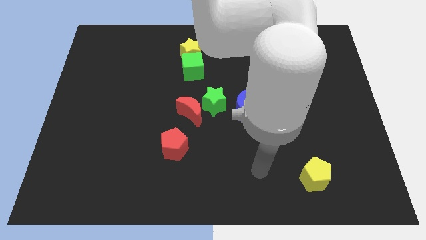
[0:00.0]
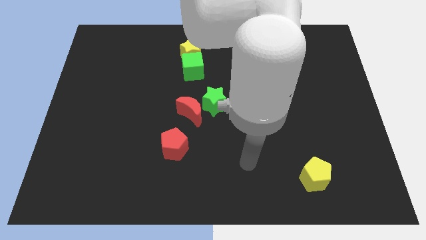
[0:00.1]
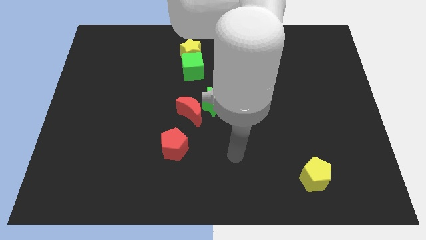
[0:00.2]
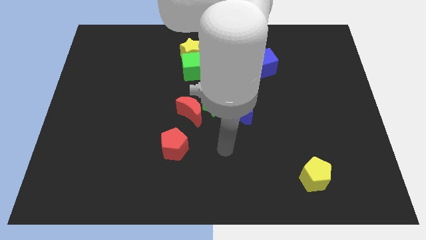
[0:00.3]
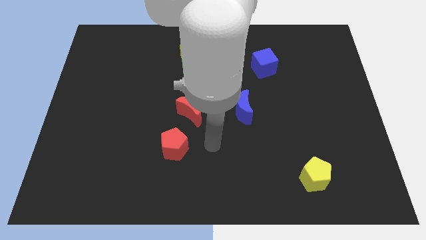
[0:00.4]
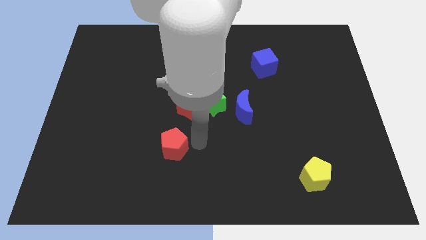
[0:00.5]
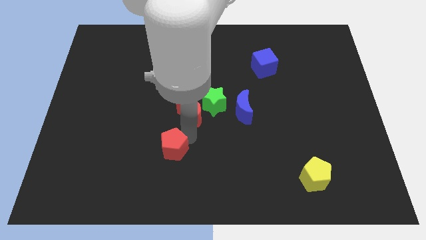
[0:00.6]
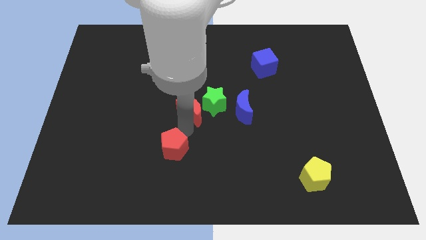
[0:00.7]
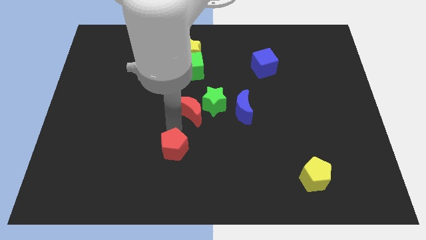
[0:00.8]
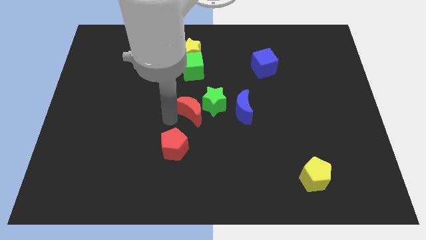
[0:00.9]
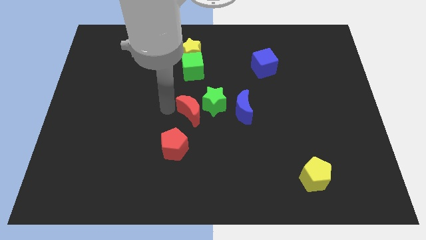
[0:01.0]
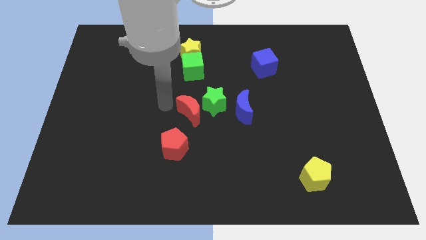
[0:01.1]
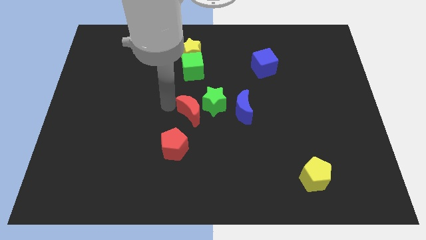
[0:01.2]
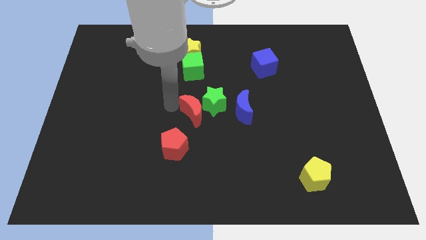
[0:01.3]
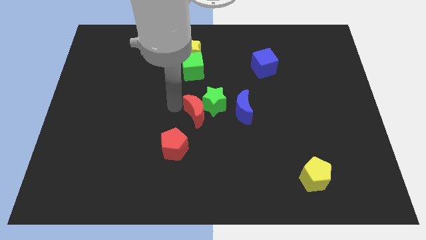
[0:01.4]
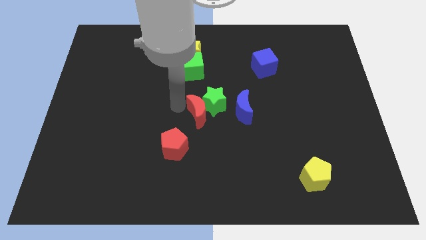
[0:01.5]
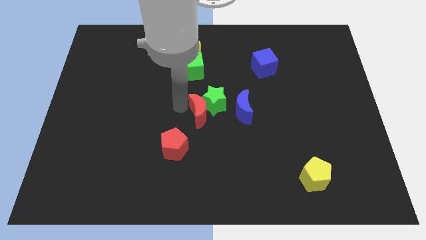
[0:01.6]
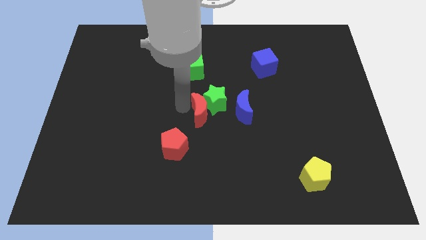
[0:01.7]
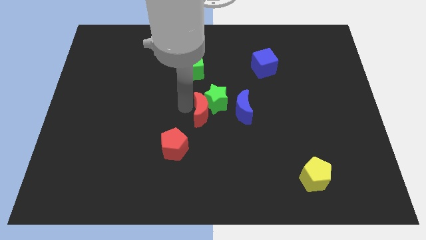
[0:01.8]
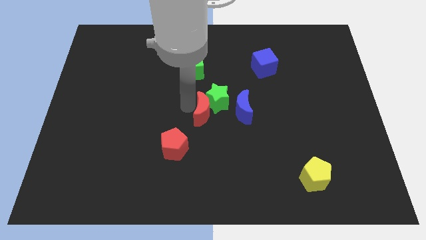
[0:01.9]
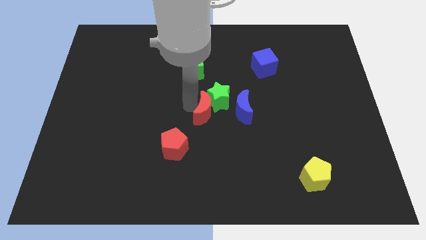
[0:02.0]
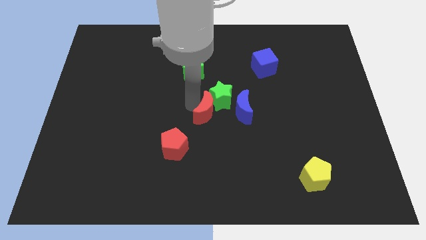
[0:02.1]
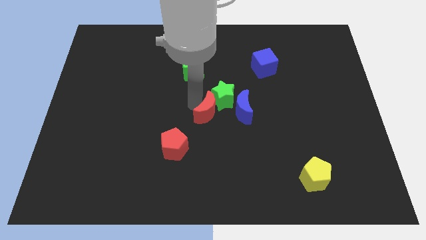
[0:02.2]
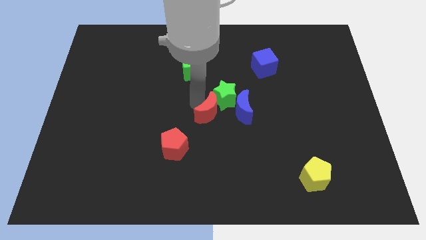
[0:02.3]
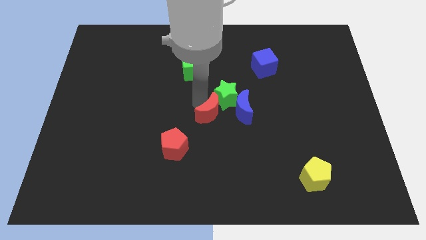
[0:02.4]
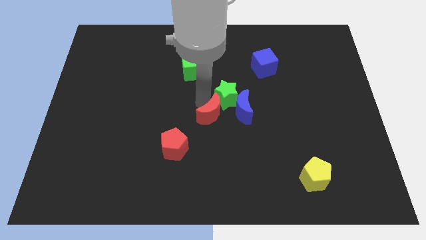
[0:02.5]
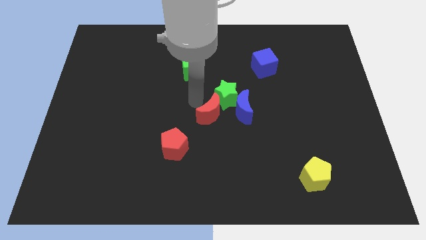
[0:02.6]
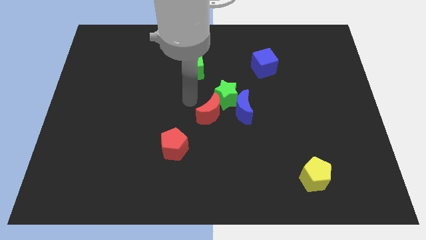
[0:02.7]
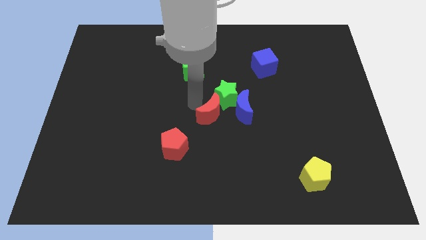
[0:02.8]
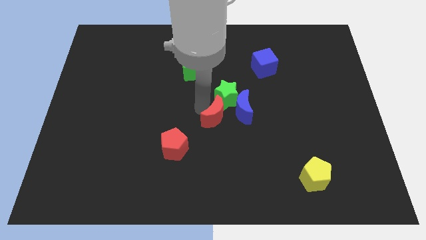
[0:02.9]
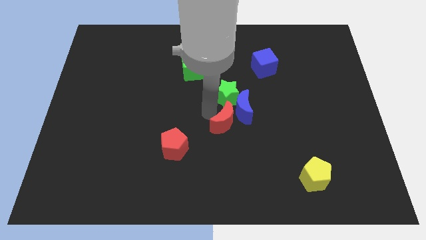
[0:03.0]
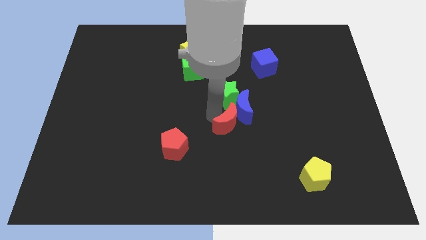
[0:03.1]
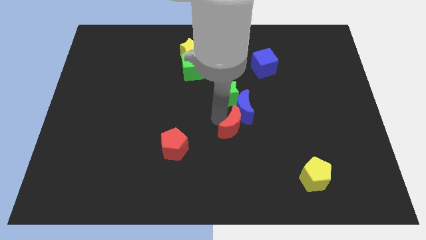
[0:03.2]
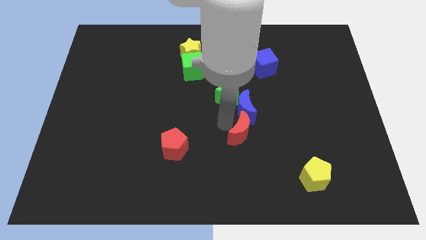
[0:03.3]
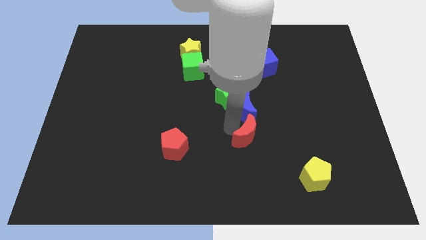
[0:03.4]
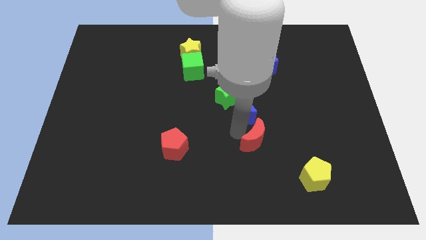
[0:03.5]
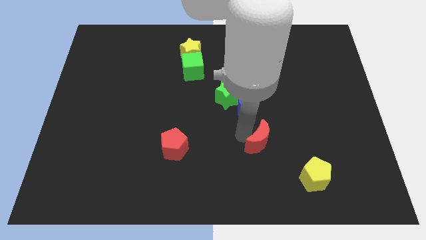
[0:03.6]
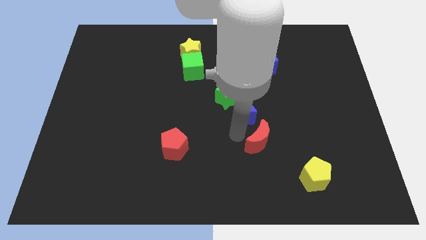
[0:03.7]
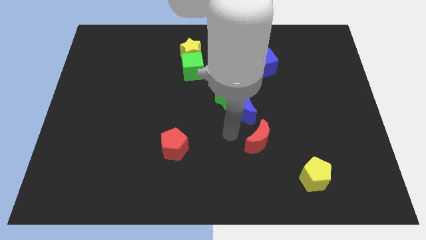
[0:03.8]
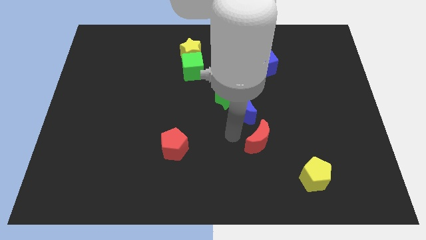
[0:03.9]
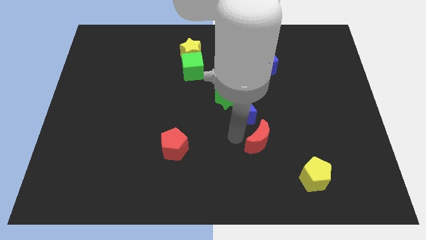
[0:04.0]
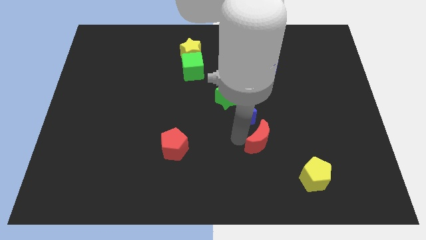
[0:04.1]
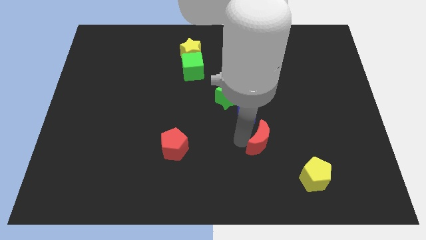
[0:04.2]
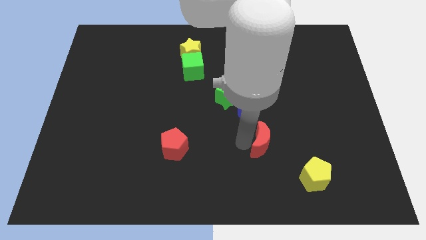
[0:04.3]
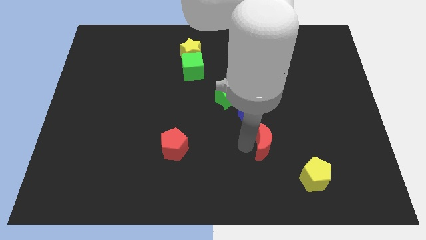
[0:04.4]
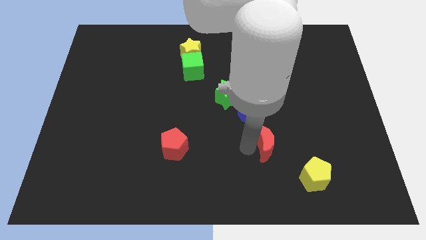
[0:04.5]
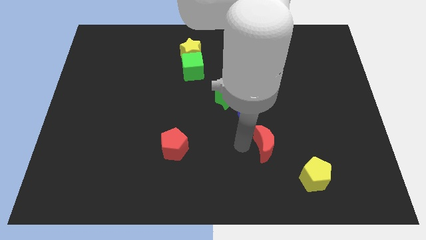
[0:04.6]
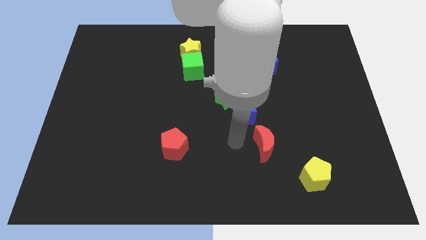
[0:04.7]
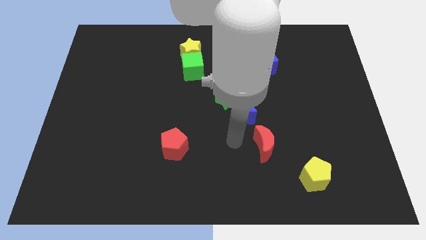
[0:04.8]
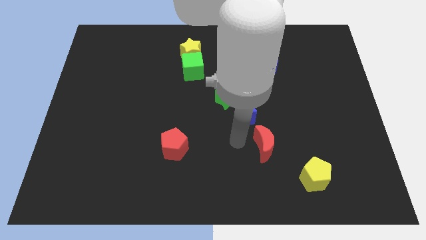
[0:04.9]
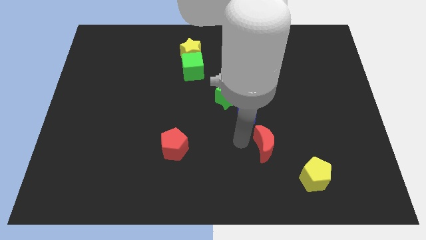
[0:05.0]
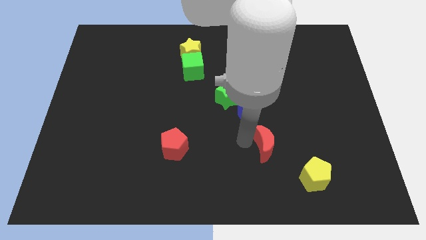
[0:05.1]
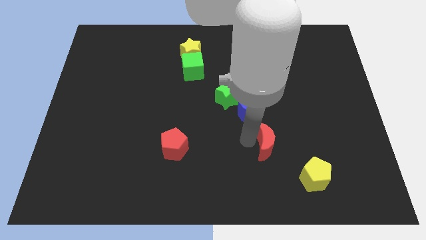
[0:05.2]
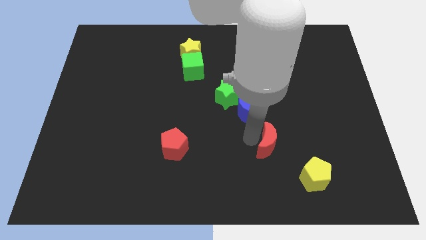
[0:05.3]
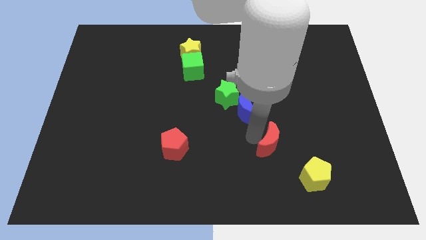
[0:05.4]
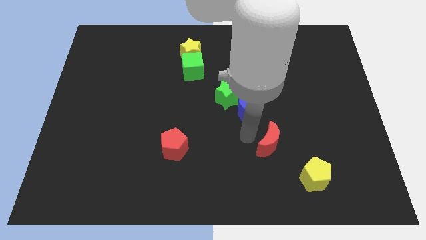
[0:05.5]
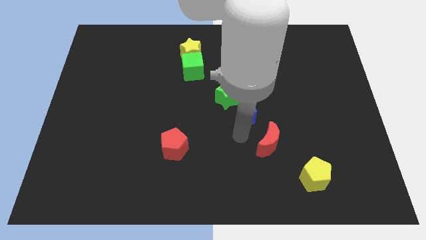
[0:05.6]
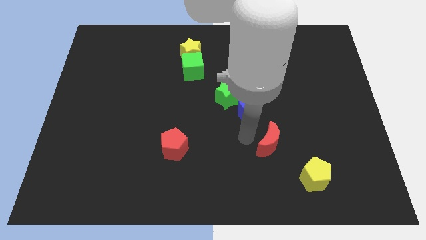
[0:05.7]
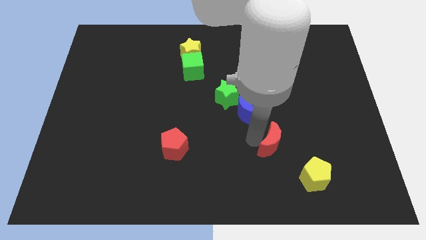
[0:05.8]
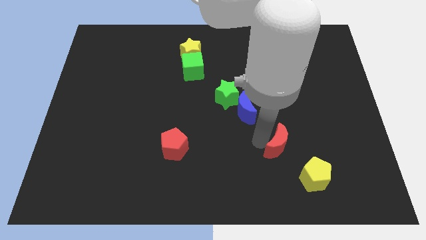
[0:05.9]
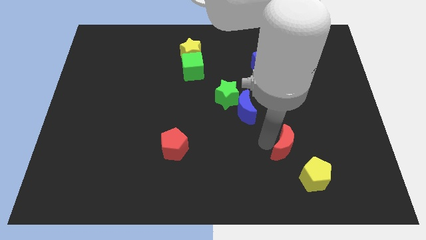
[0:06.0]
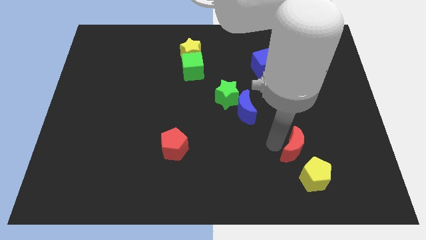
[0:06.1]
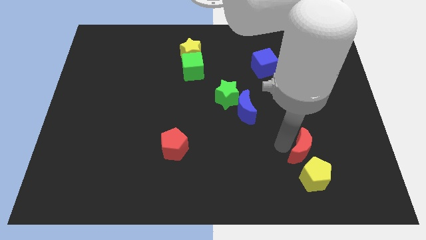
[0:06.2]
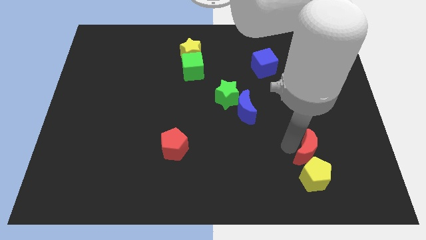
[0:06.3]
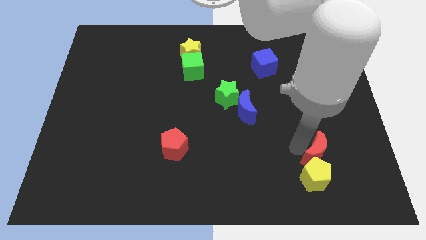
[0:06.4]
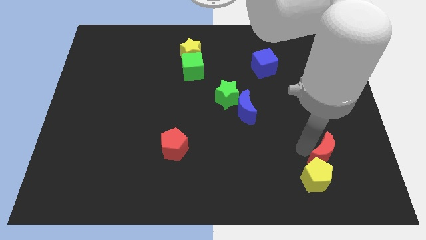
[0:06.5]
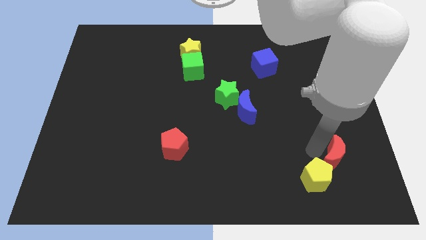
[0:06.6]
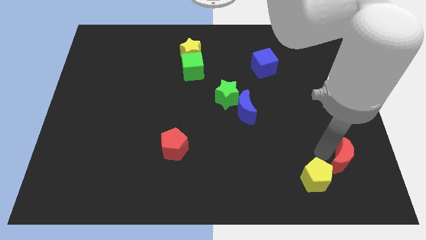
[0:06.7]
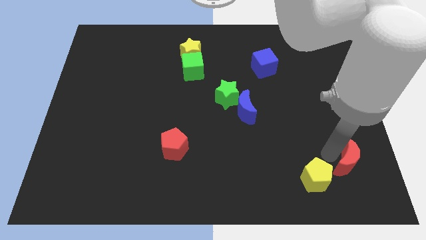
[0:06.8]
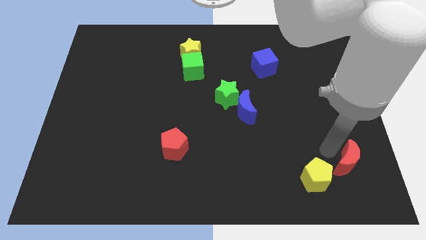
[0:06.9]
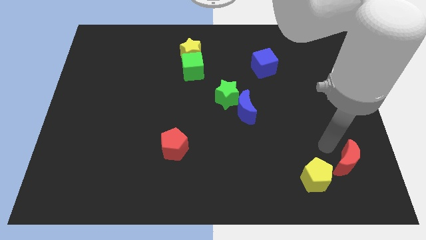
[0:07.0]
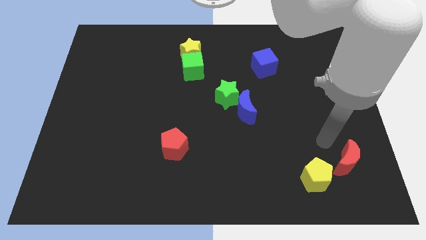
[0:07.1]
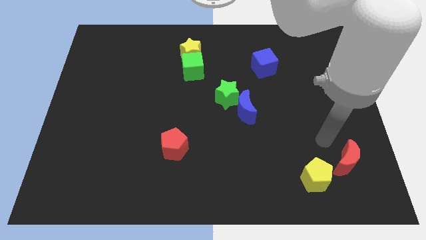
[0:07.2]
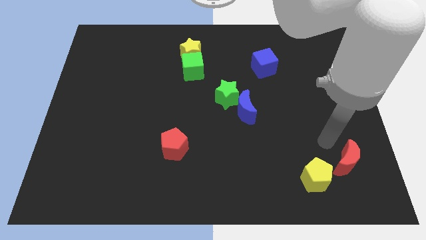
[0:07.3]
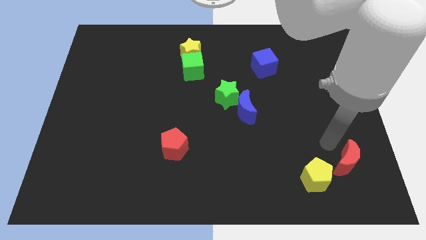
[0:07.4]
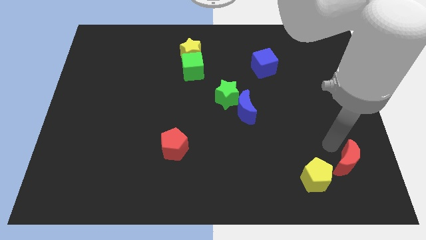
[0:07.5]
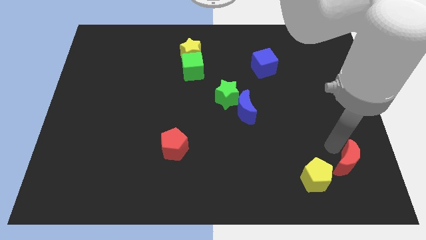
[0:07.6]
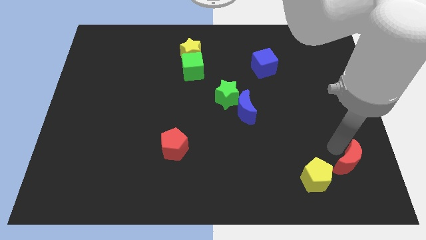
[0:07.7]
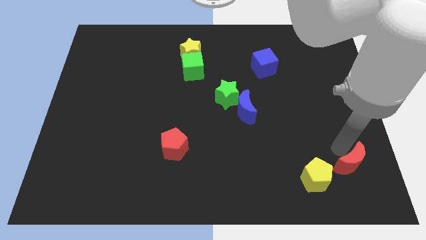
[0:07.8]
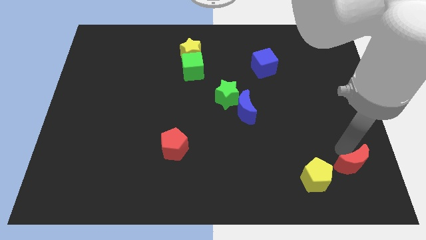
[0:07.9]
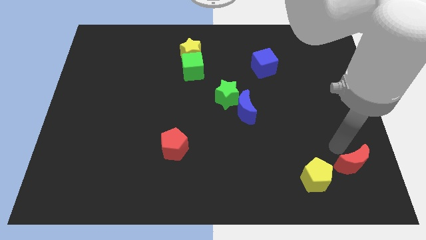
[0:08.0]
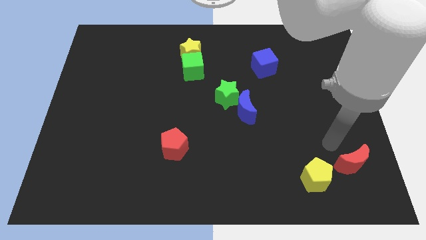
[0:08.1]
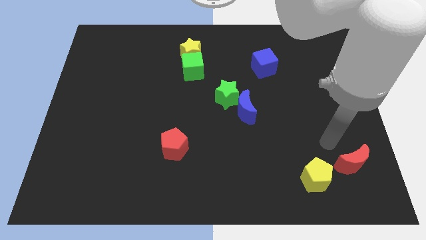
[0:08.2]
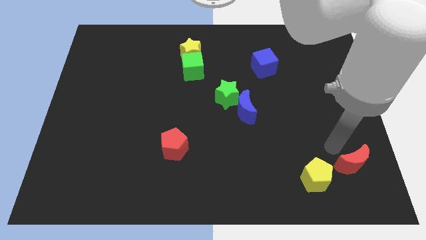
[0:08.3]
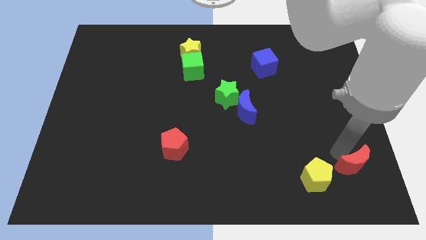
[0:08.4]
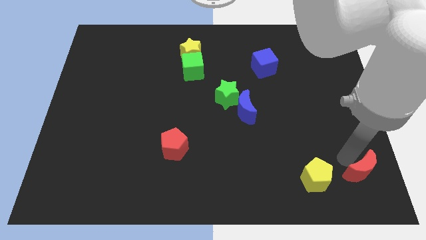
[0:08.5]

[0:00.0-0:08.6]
slide the red moon to the bottom right corner
